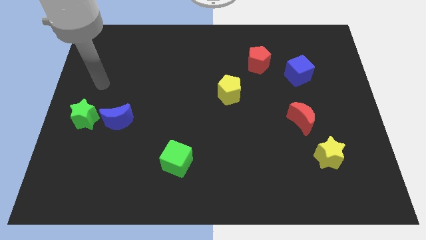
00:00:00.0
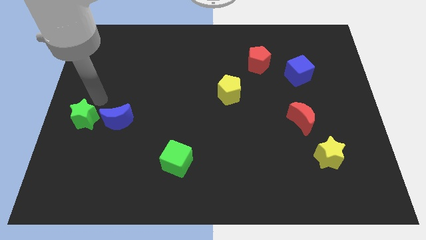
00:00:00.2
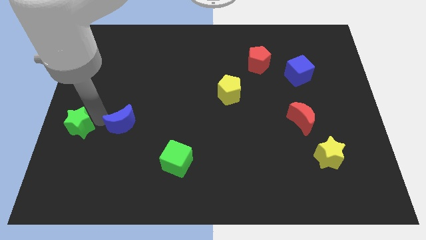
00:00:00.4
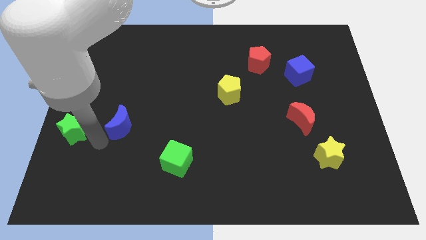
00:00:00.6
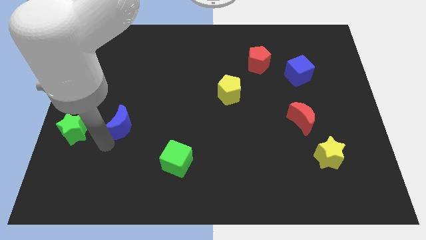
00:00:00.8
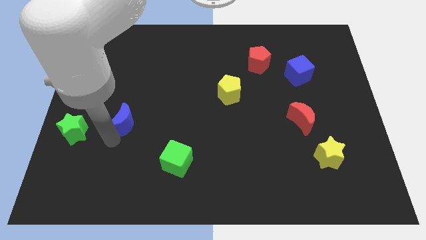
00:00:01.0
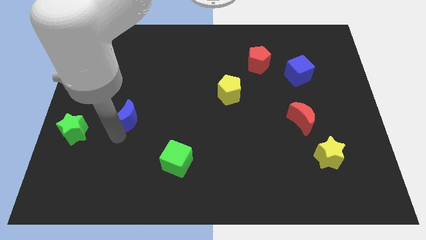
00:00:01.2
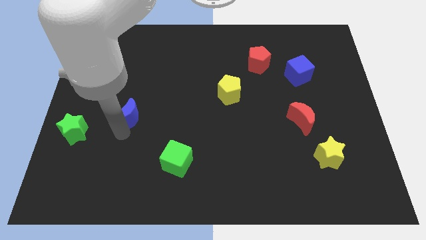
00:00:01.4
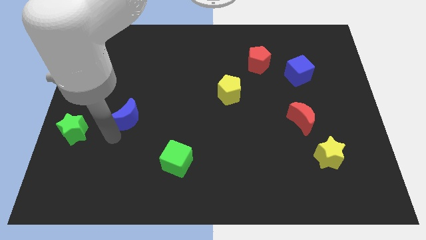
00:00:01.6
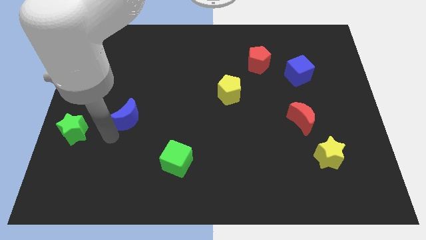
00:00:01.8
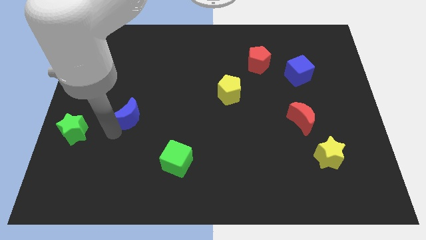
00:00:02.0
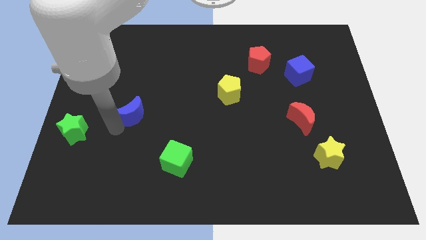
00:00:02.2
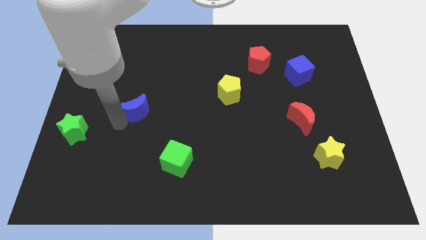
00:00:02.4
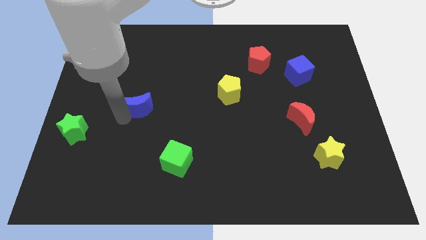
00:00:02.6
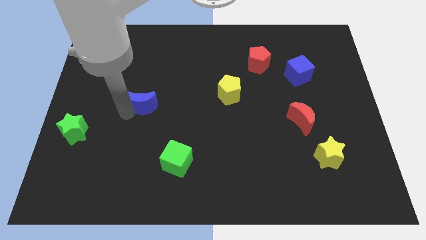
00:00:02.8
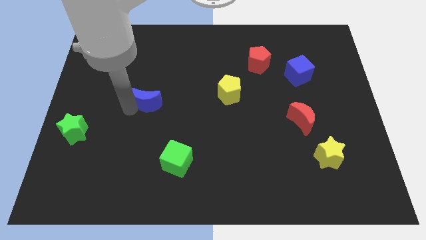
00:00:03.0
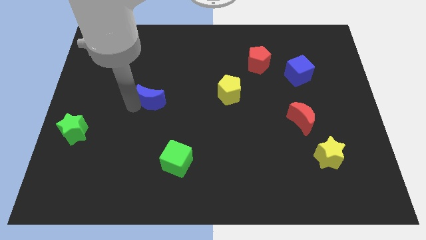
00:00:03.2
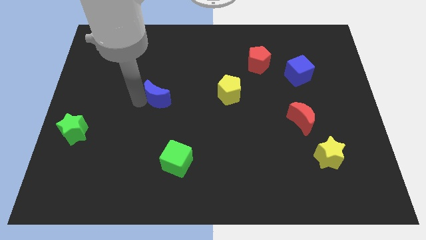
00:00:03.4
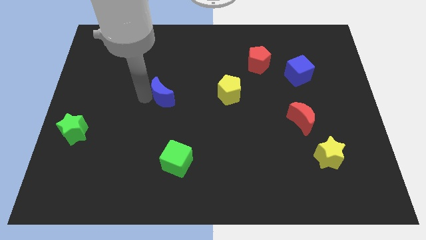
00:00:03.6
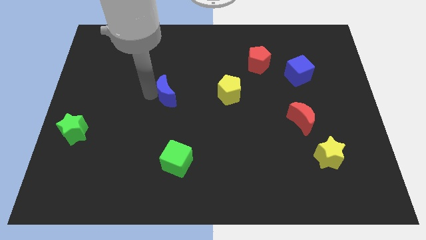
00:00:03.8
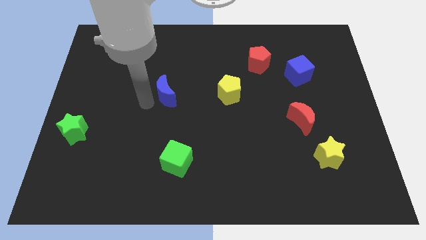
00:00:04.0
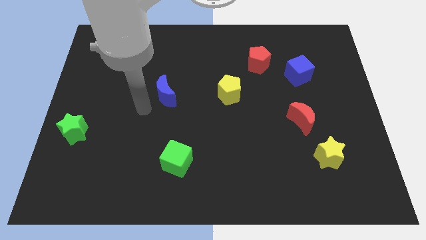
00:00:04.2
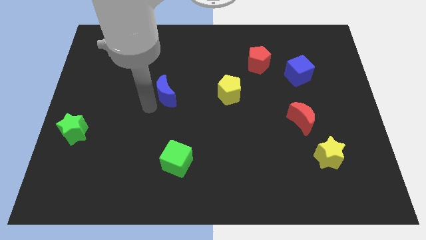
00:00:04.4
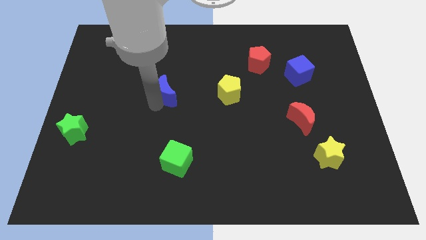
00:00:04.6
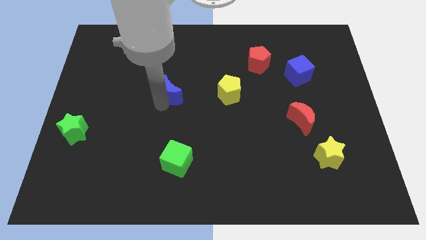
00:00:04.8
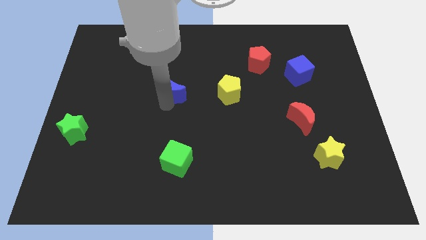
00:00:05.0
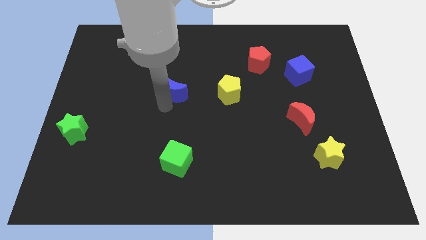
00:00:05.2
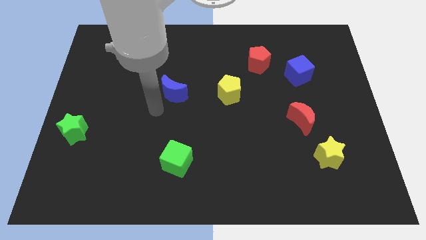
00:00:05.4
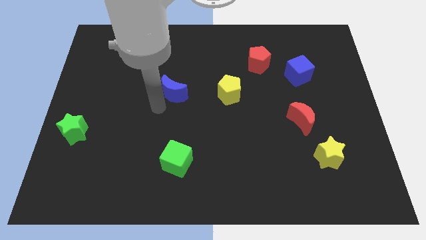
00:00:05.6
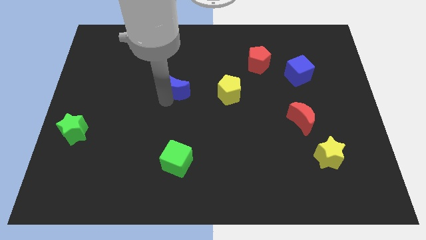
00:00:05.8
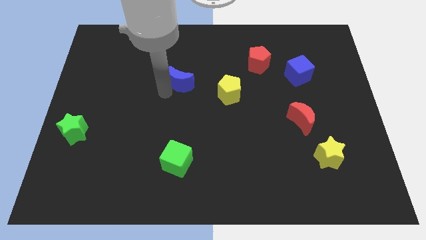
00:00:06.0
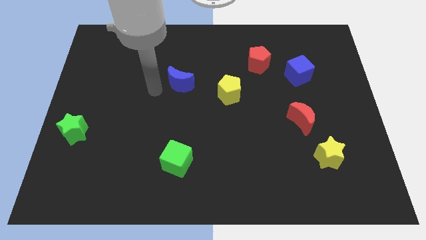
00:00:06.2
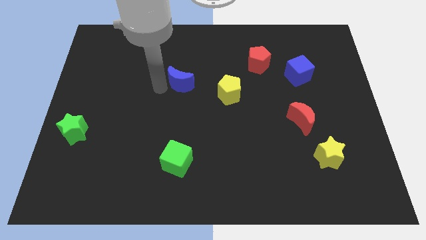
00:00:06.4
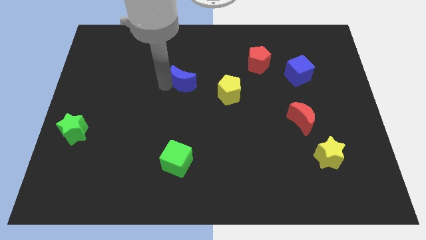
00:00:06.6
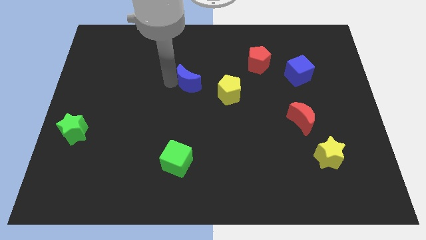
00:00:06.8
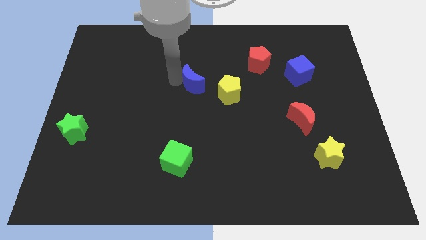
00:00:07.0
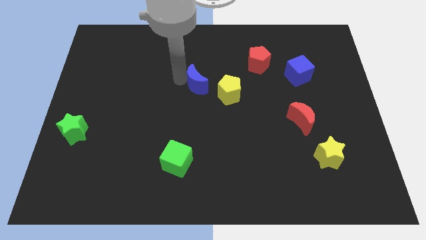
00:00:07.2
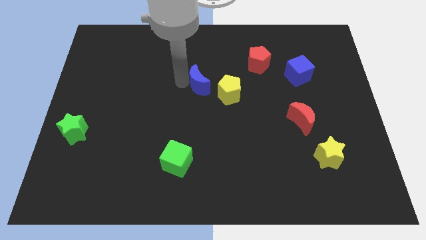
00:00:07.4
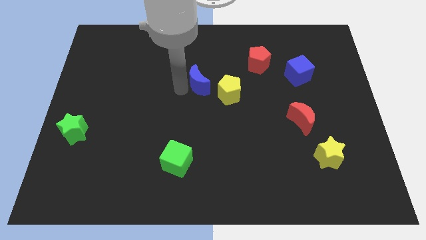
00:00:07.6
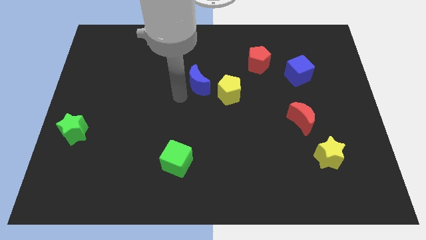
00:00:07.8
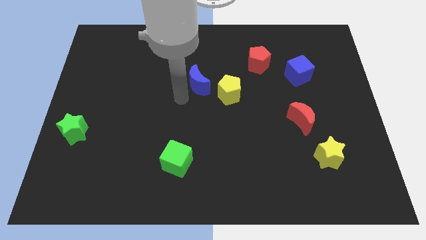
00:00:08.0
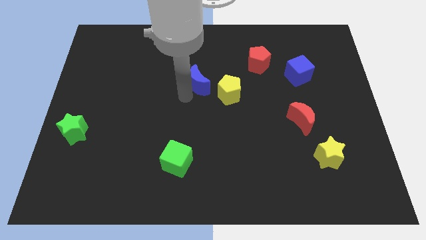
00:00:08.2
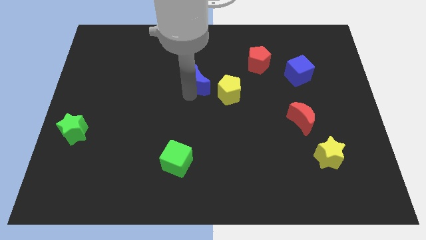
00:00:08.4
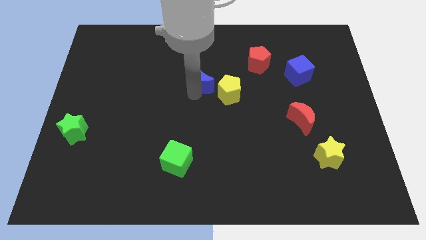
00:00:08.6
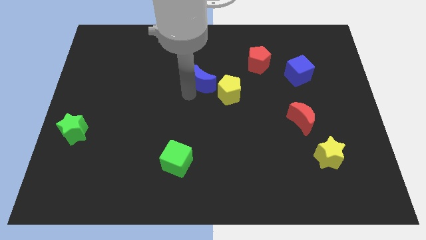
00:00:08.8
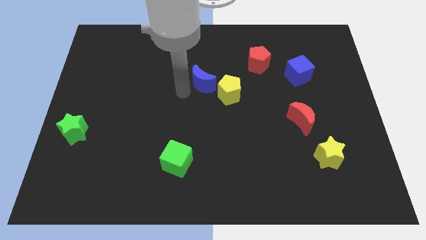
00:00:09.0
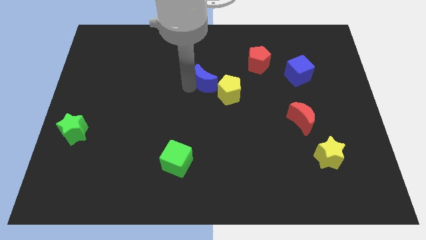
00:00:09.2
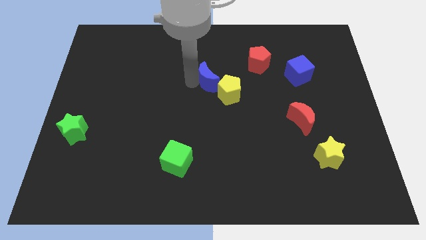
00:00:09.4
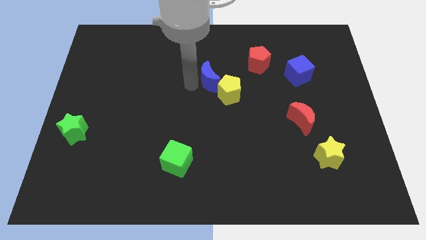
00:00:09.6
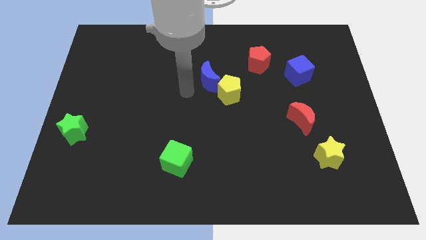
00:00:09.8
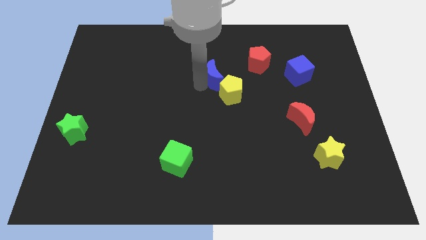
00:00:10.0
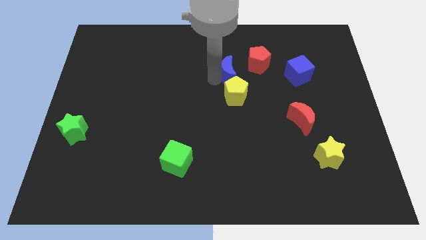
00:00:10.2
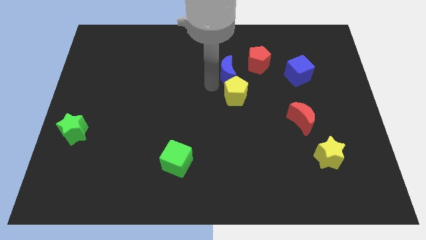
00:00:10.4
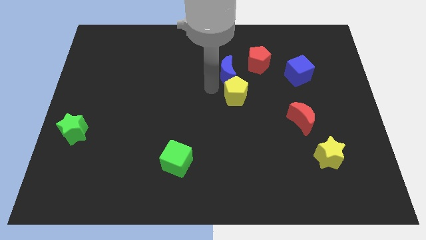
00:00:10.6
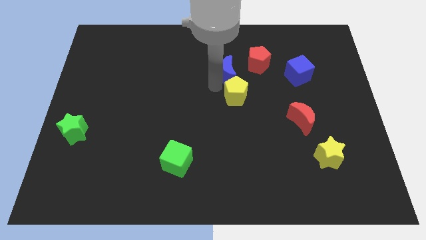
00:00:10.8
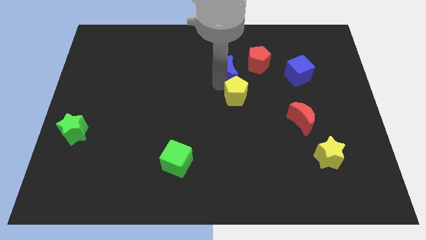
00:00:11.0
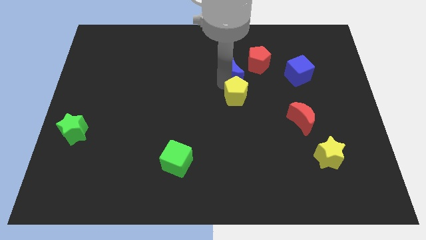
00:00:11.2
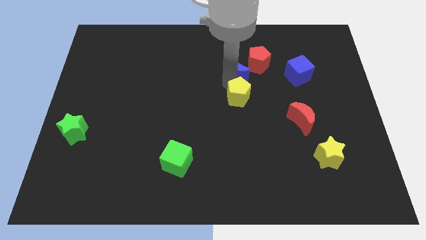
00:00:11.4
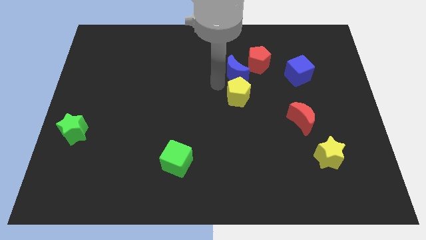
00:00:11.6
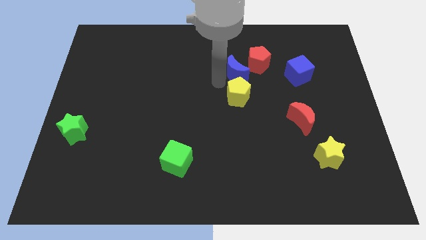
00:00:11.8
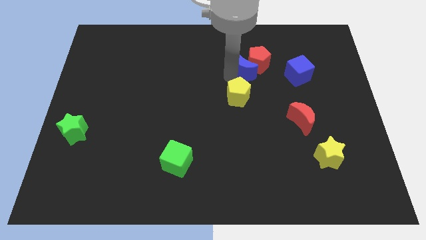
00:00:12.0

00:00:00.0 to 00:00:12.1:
move the blue moon to the red pentagon

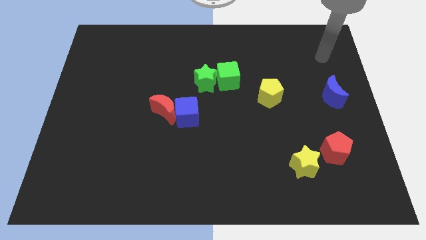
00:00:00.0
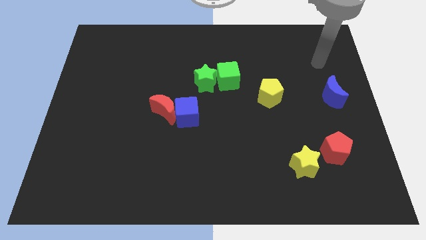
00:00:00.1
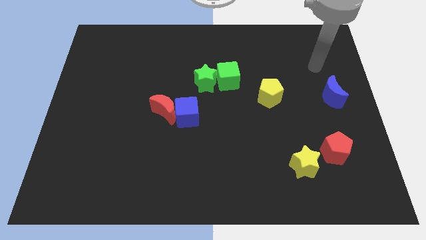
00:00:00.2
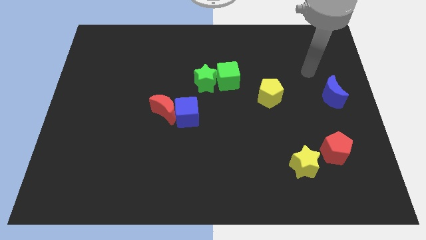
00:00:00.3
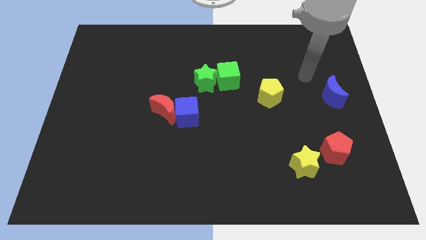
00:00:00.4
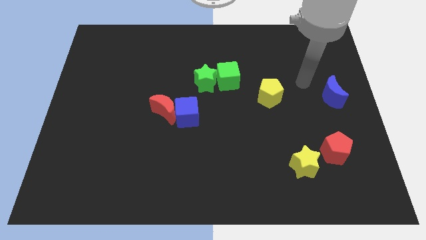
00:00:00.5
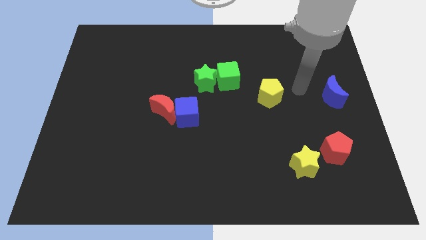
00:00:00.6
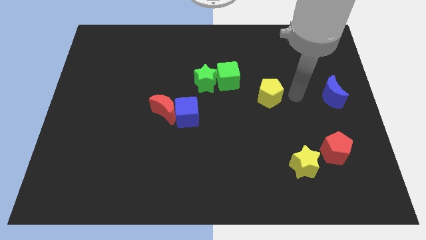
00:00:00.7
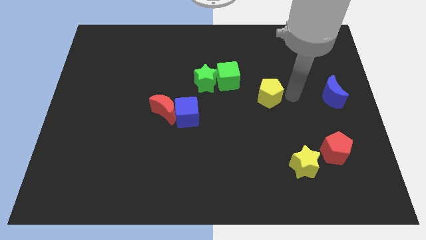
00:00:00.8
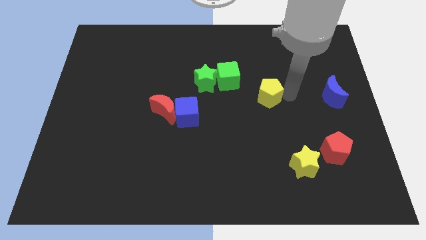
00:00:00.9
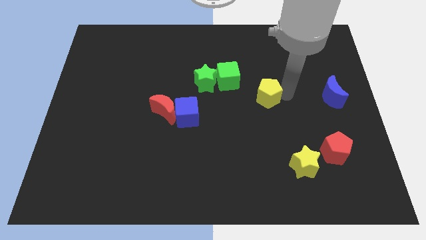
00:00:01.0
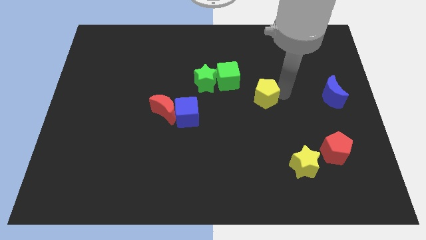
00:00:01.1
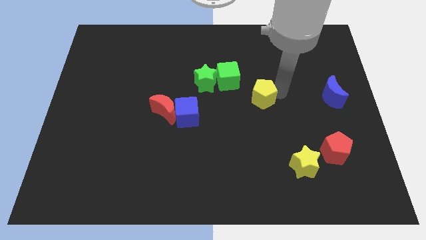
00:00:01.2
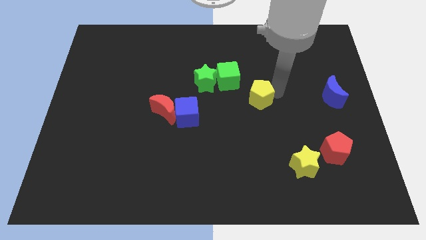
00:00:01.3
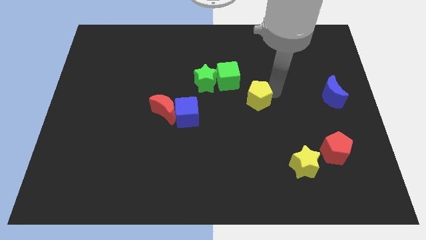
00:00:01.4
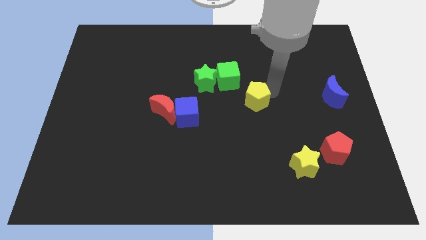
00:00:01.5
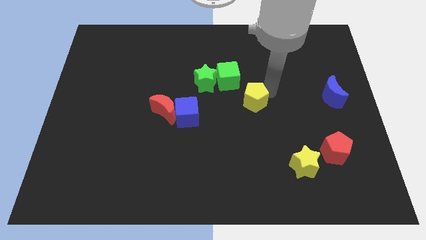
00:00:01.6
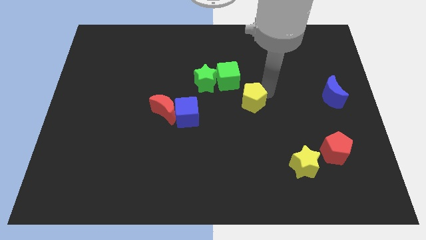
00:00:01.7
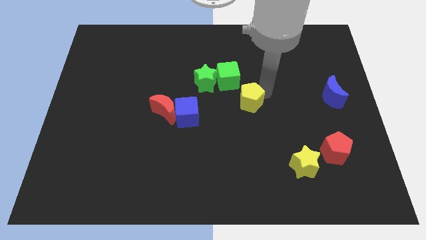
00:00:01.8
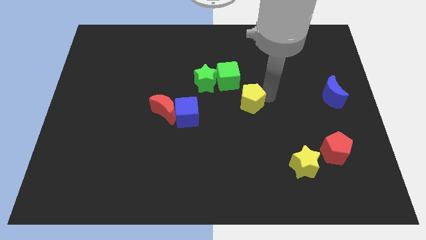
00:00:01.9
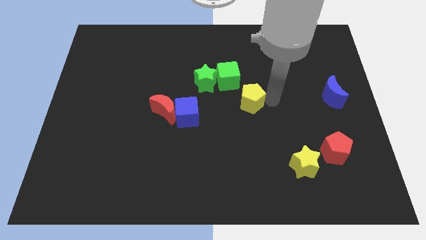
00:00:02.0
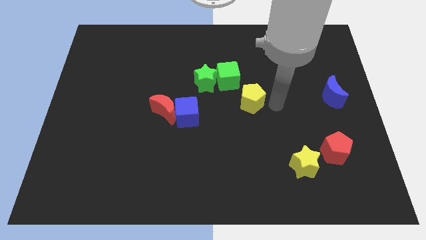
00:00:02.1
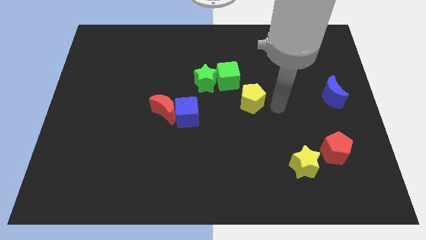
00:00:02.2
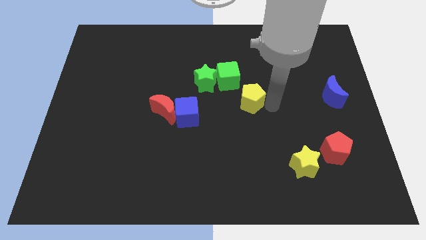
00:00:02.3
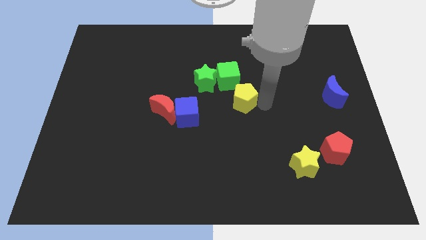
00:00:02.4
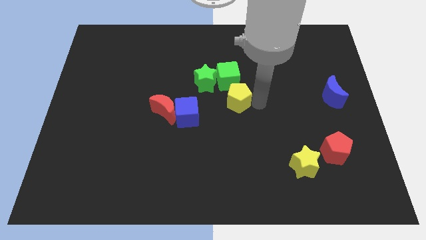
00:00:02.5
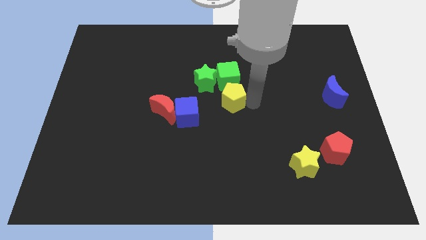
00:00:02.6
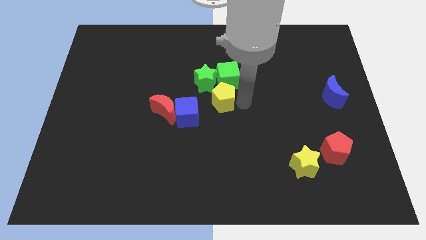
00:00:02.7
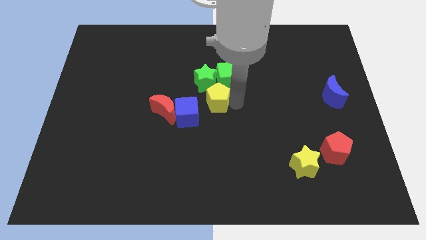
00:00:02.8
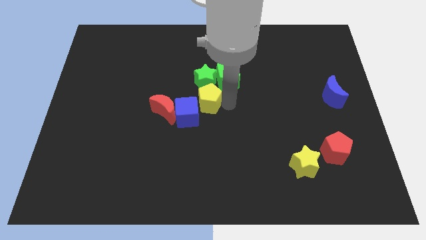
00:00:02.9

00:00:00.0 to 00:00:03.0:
slide the yellow pentagon towards the green star
